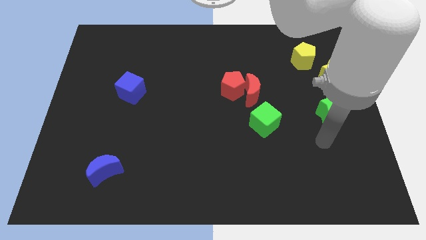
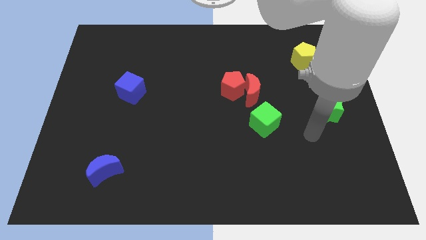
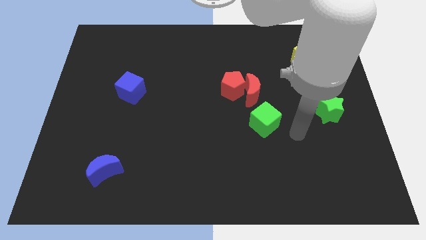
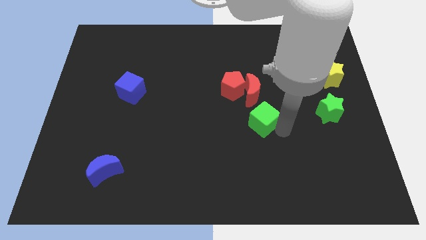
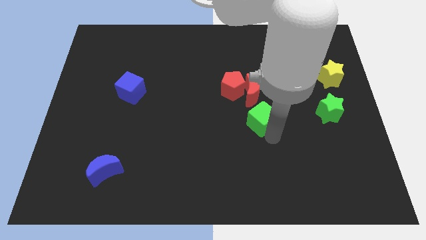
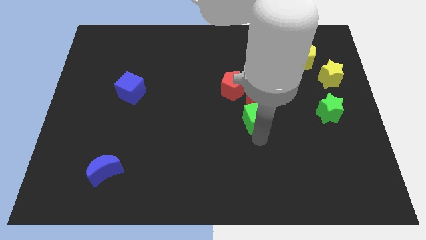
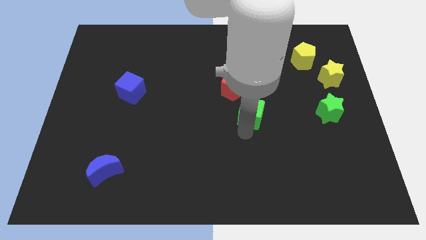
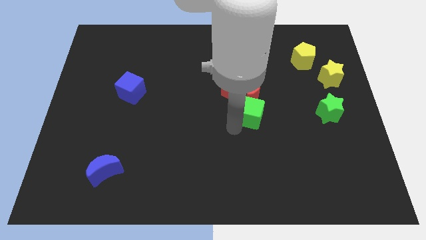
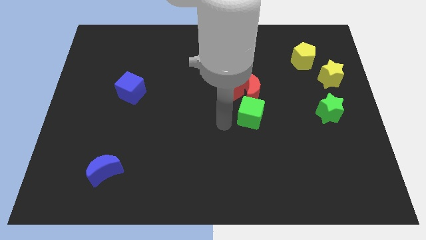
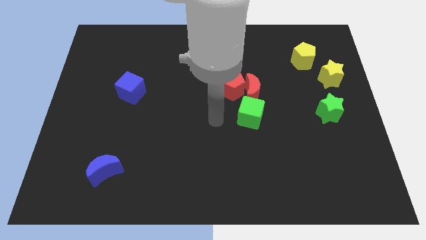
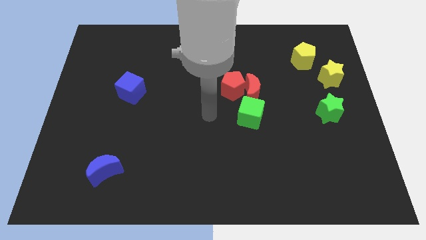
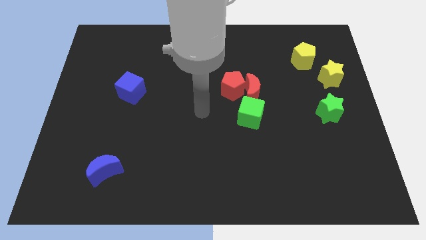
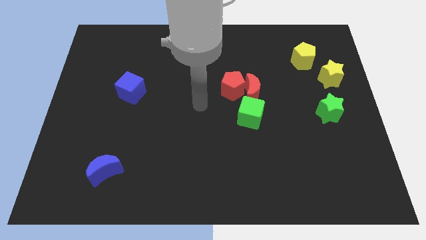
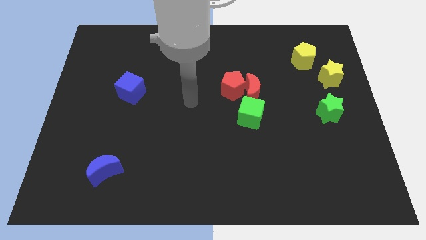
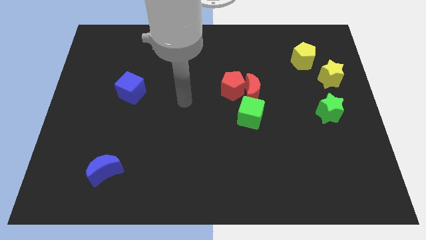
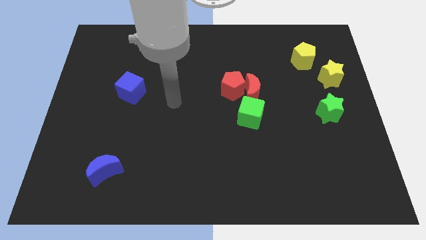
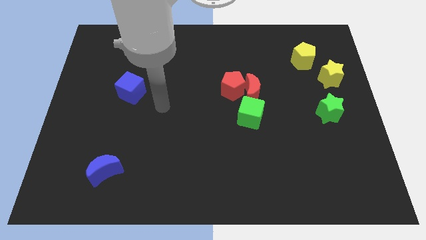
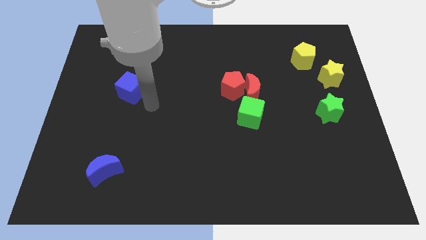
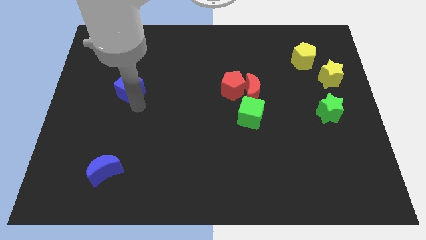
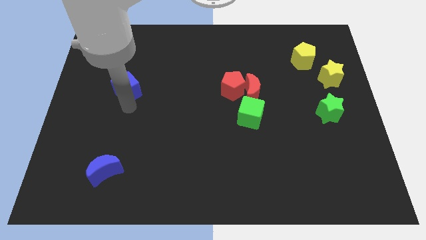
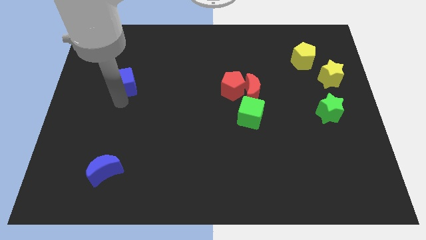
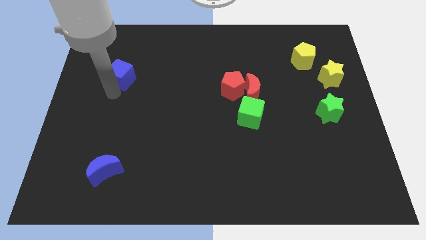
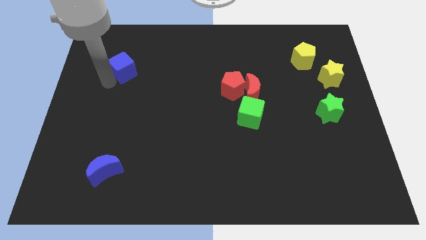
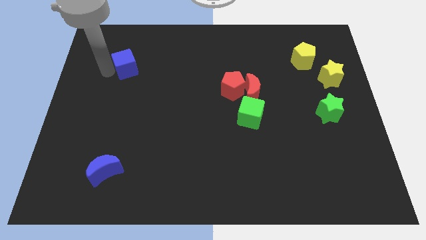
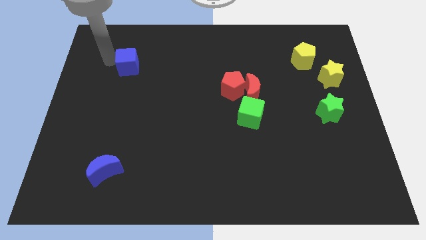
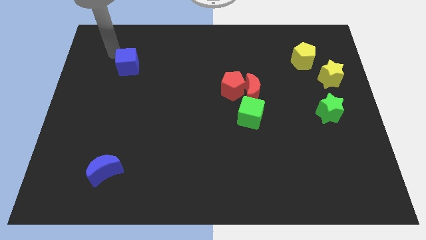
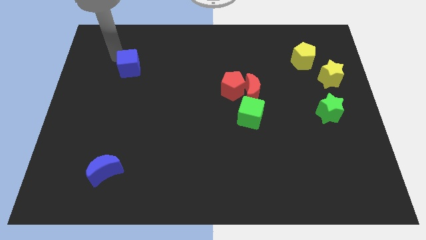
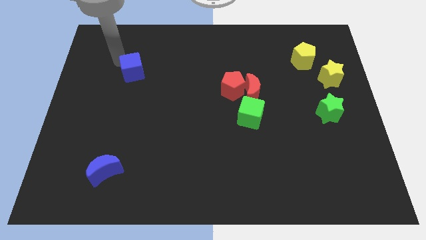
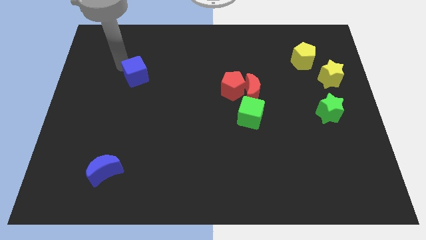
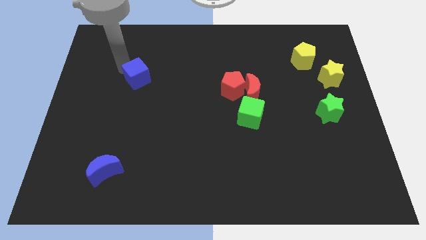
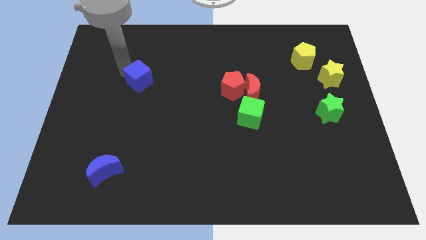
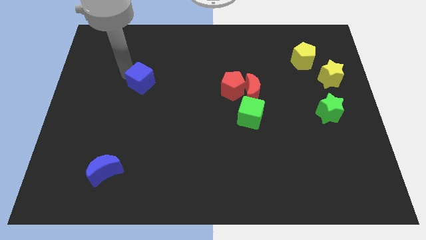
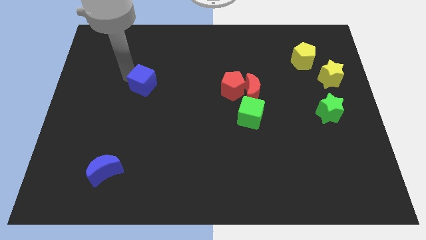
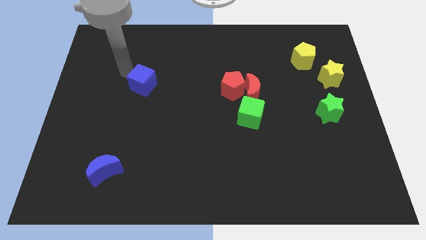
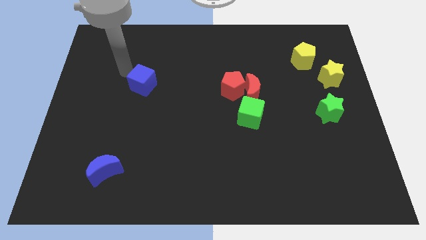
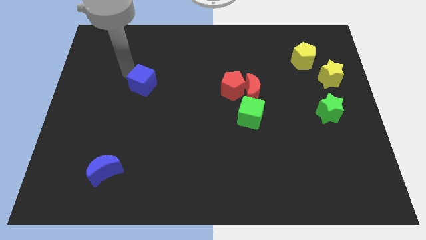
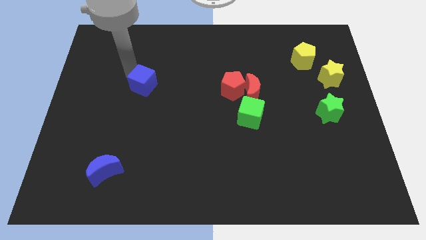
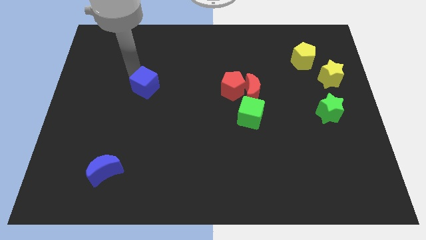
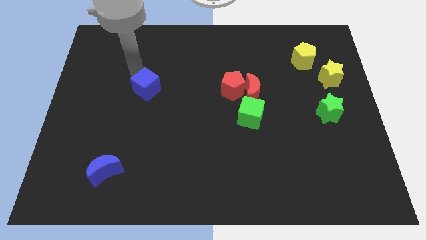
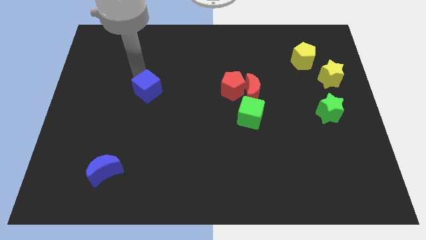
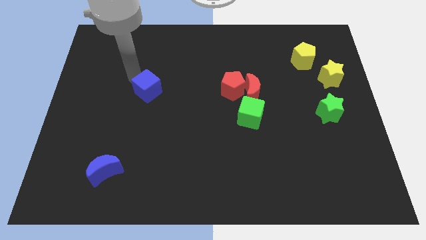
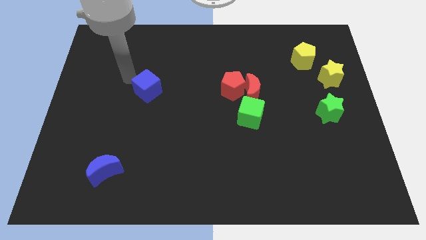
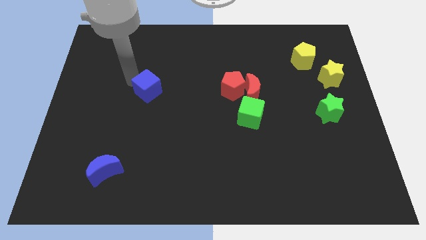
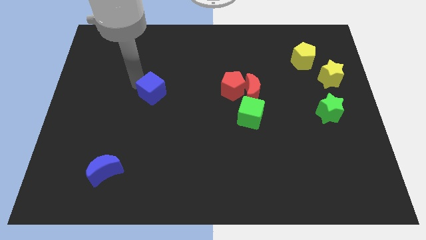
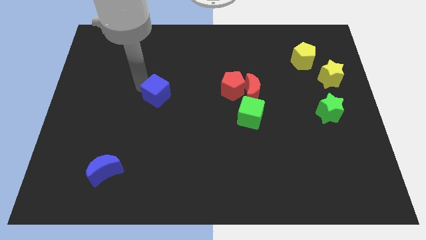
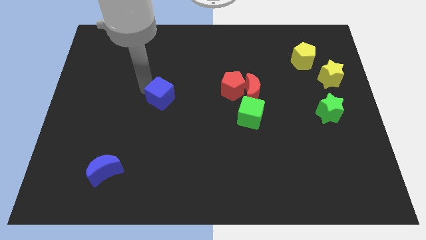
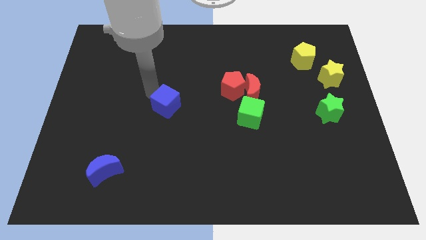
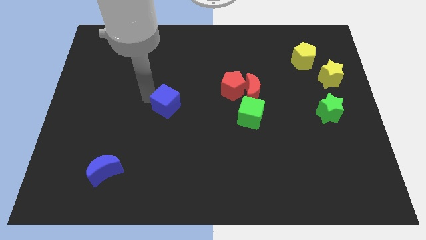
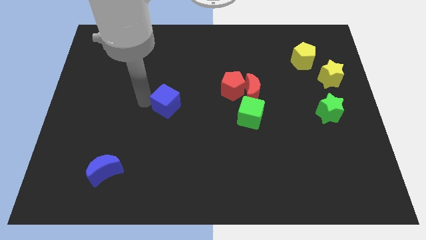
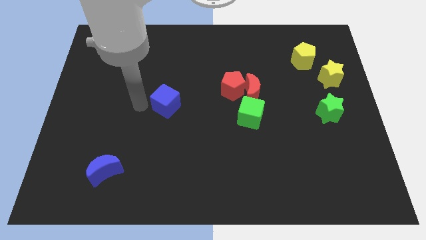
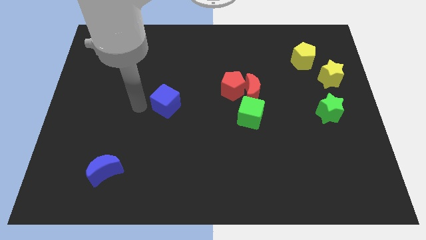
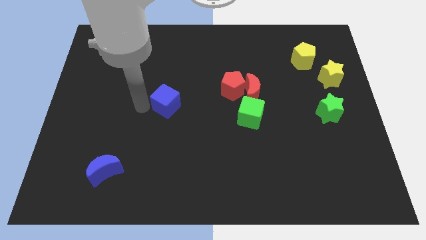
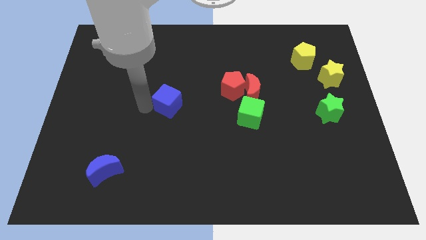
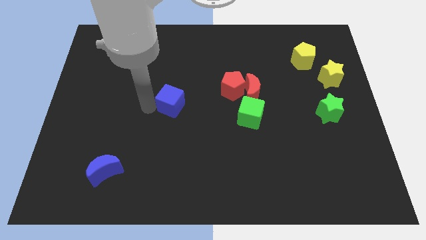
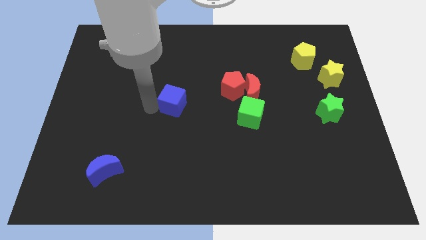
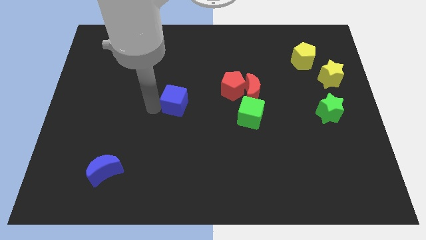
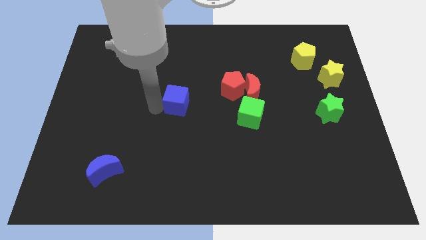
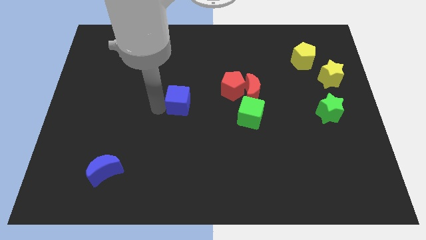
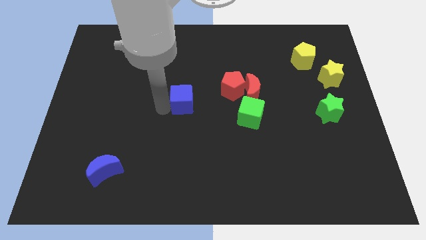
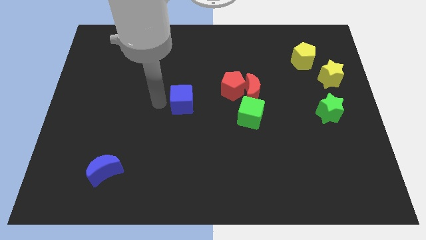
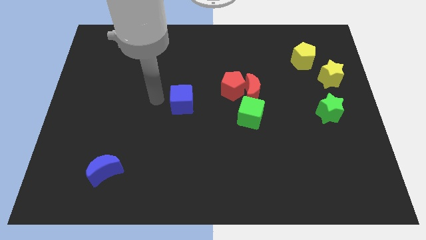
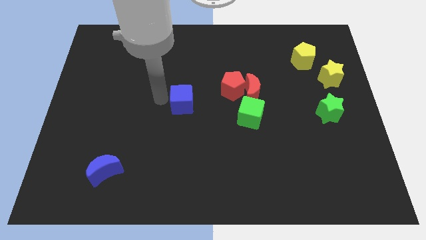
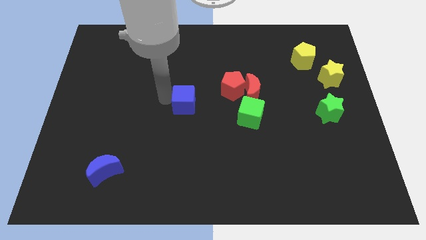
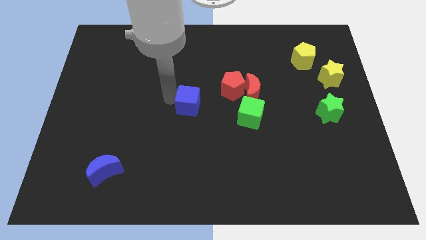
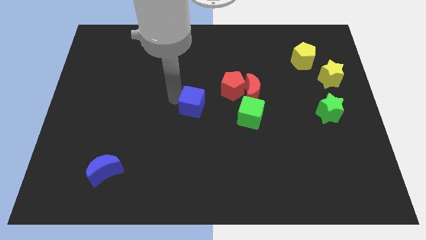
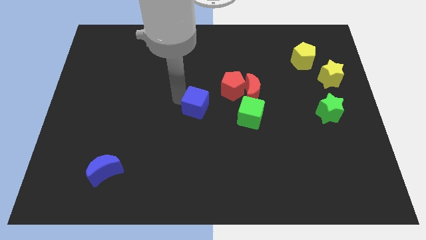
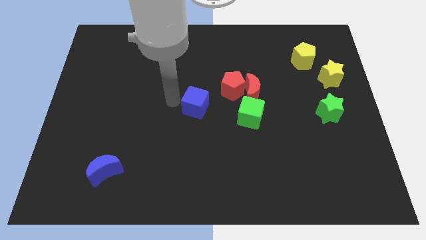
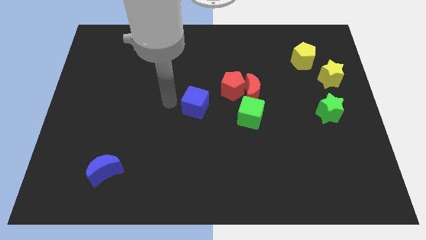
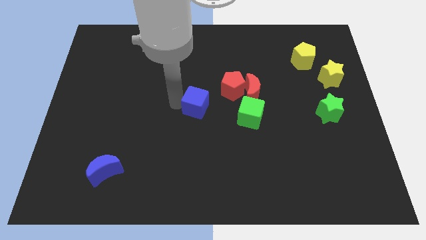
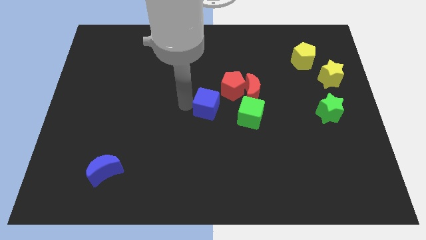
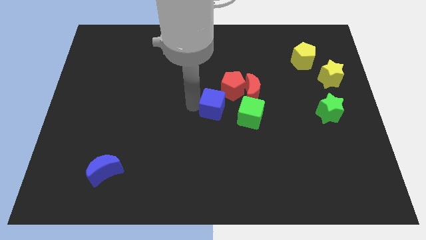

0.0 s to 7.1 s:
move the blue cube to the bottom left of the red moon
